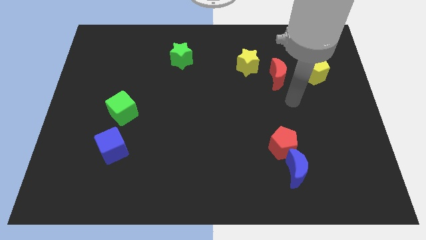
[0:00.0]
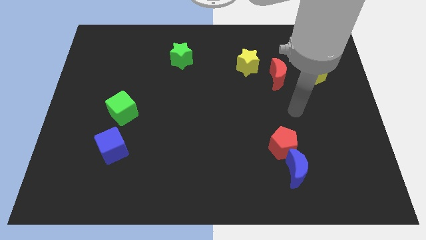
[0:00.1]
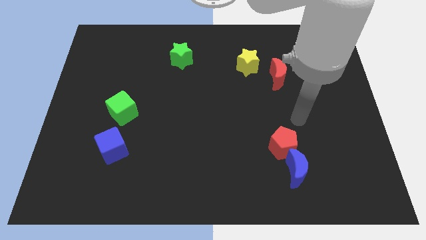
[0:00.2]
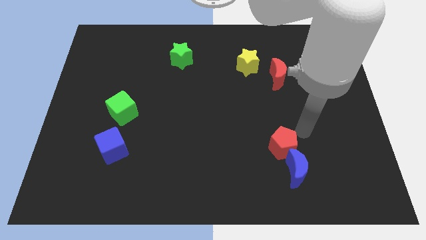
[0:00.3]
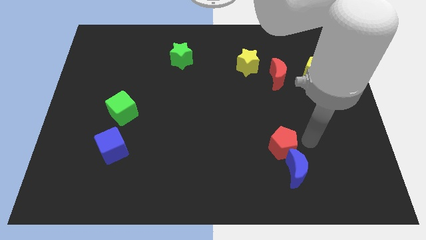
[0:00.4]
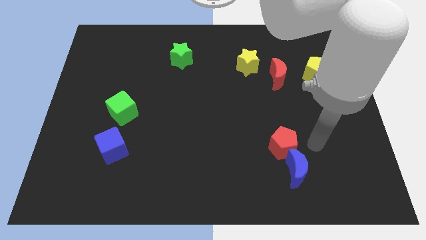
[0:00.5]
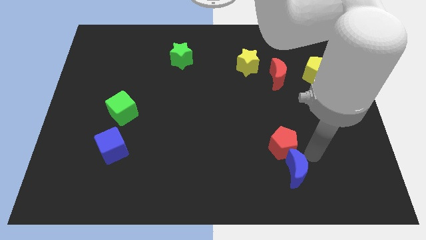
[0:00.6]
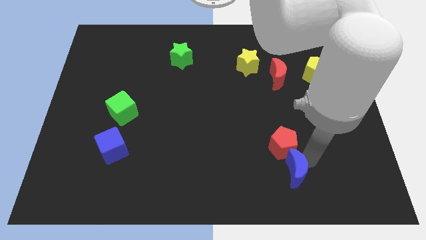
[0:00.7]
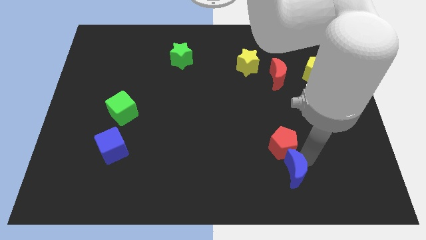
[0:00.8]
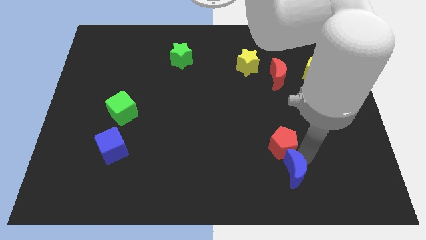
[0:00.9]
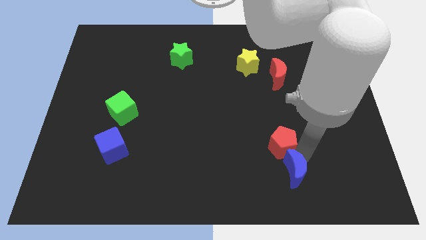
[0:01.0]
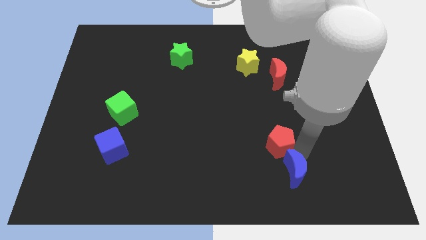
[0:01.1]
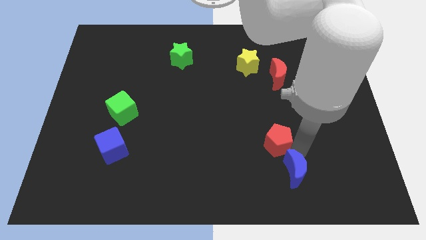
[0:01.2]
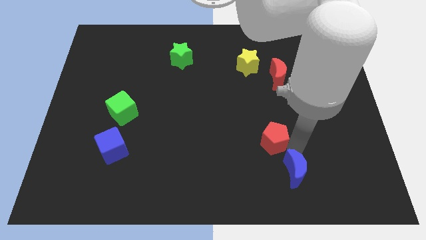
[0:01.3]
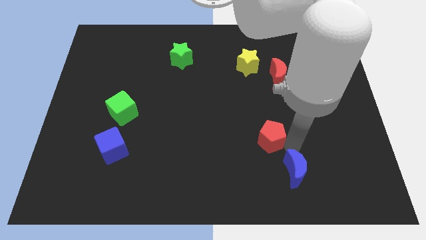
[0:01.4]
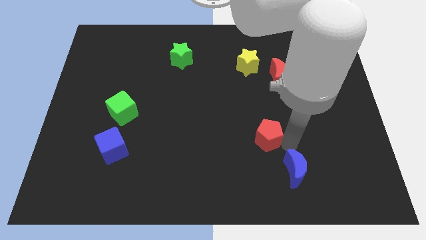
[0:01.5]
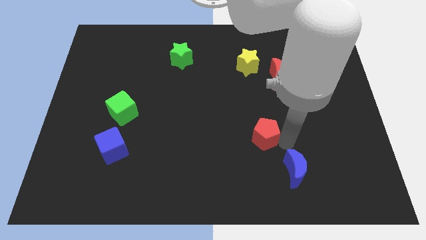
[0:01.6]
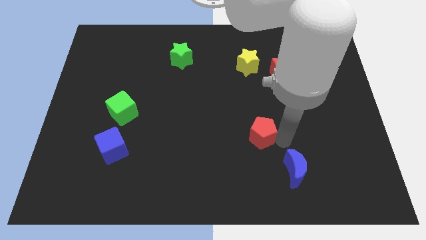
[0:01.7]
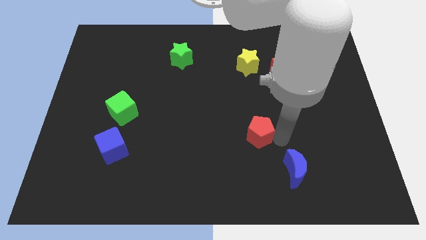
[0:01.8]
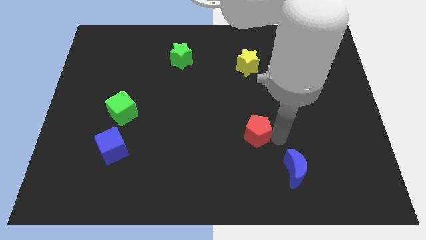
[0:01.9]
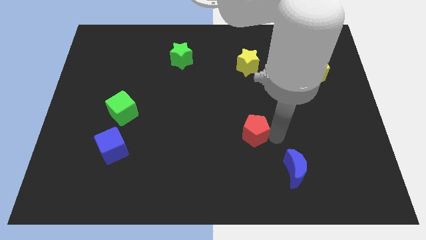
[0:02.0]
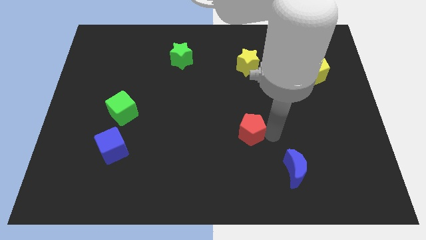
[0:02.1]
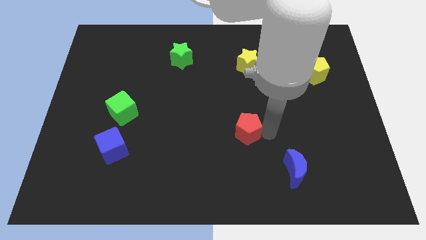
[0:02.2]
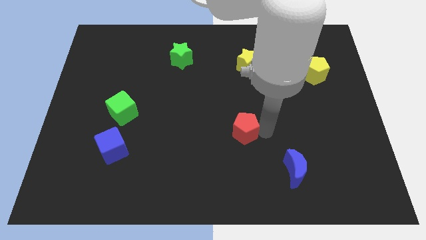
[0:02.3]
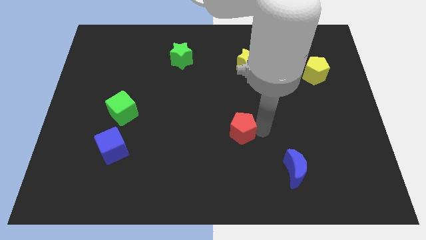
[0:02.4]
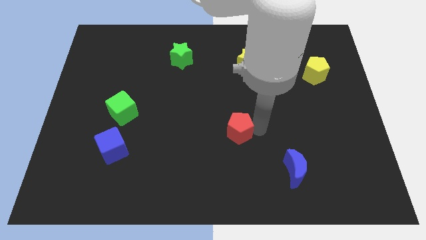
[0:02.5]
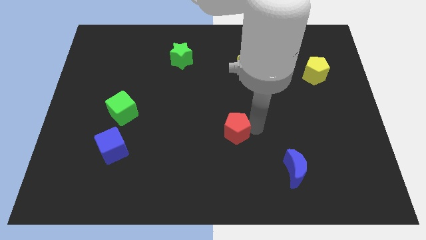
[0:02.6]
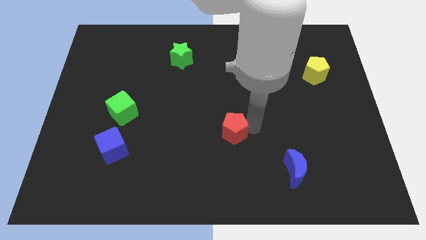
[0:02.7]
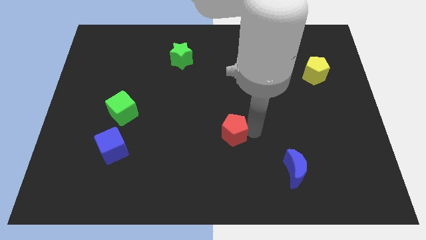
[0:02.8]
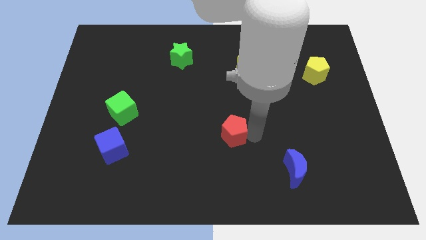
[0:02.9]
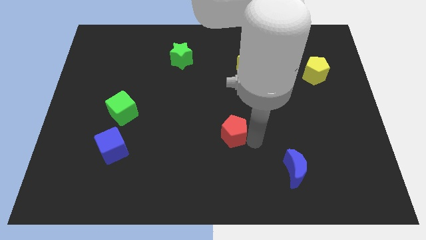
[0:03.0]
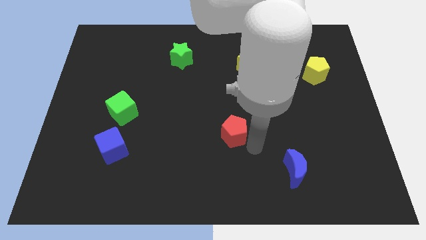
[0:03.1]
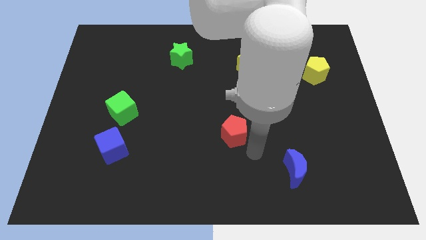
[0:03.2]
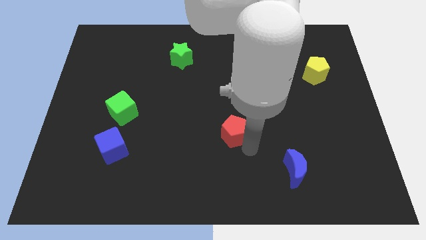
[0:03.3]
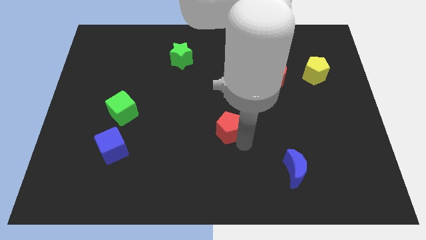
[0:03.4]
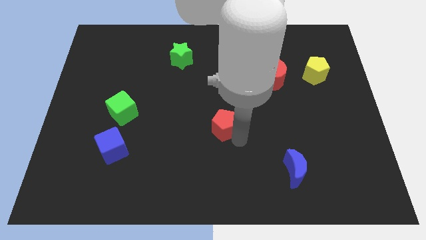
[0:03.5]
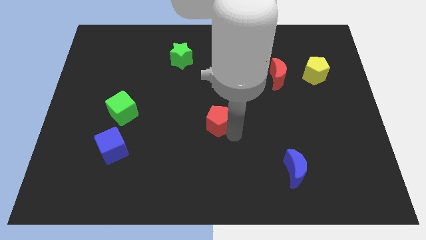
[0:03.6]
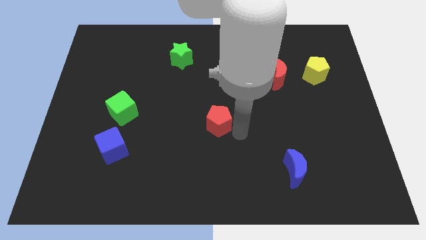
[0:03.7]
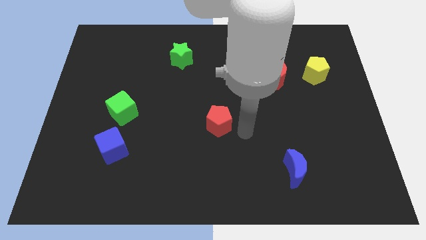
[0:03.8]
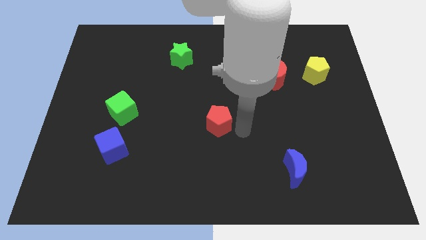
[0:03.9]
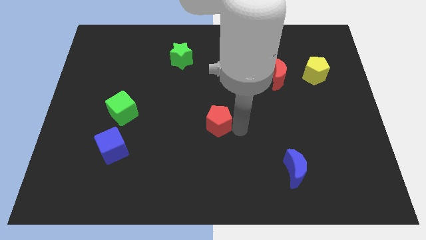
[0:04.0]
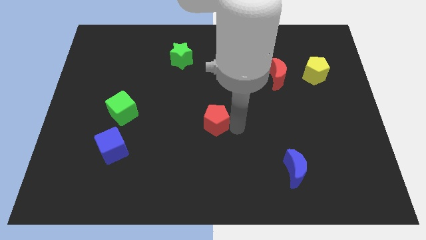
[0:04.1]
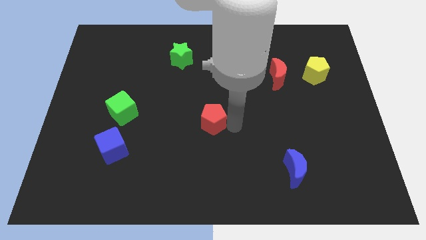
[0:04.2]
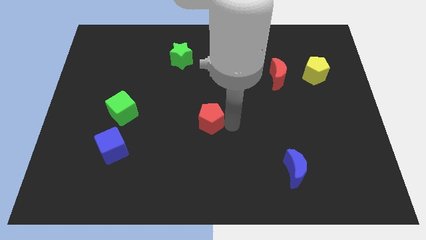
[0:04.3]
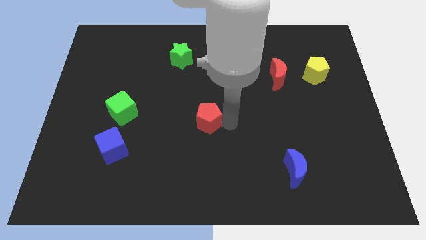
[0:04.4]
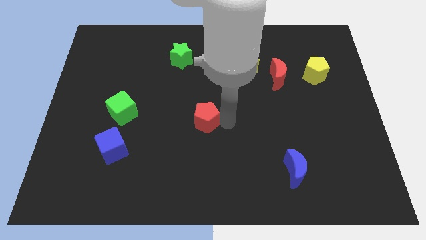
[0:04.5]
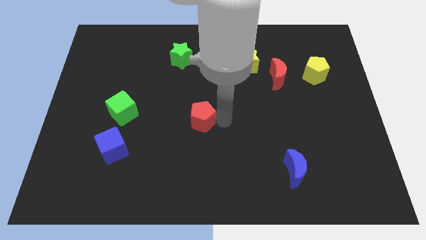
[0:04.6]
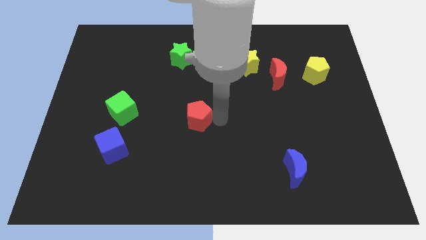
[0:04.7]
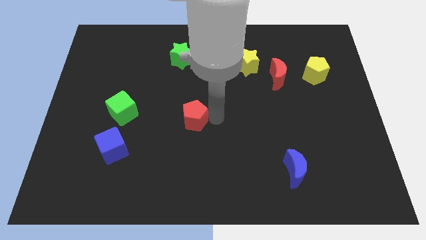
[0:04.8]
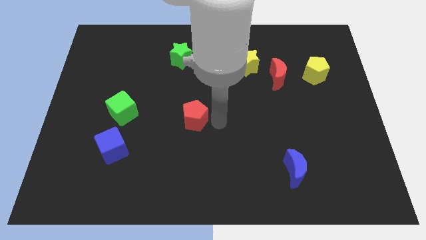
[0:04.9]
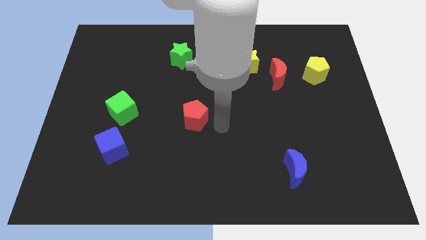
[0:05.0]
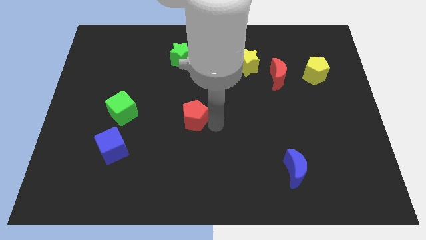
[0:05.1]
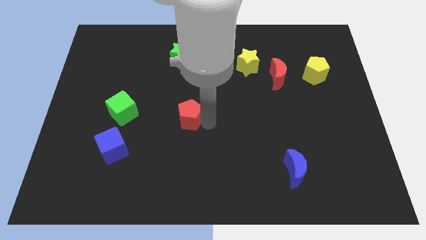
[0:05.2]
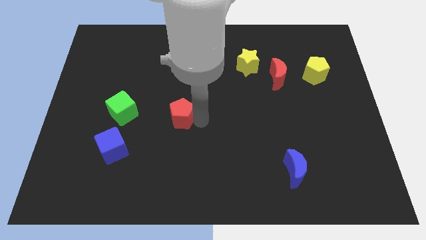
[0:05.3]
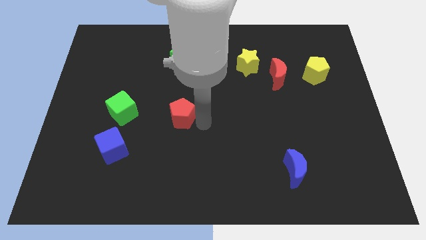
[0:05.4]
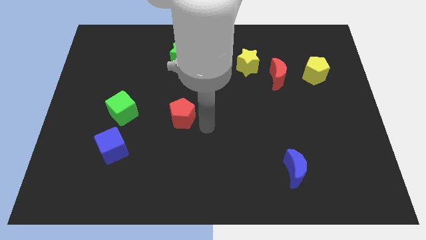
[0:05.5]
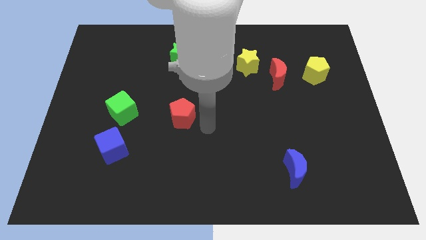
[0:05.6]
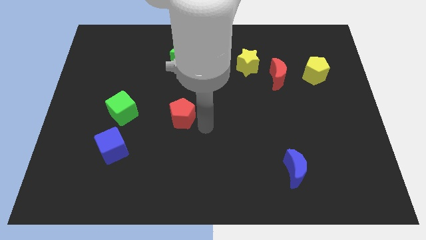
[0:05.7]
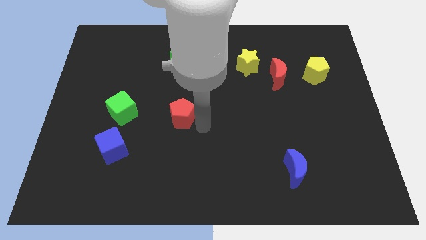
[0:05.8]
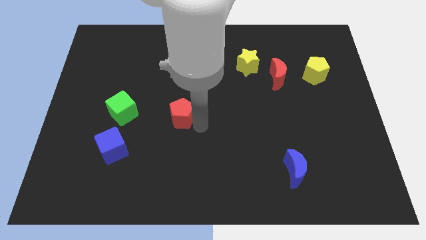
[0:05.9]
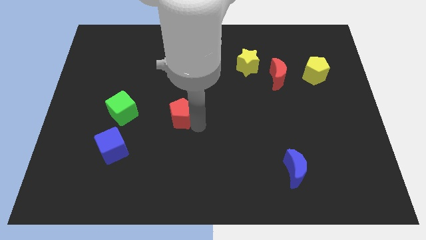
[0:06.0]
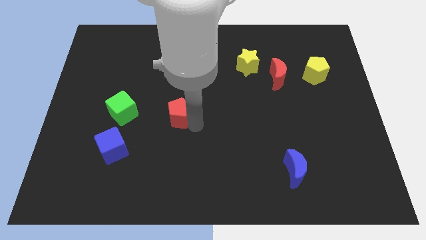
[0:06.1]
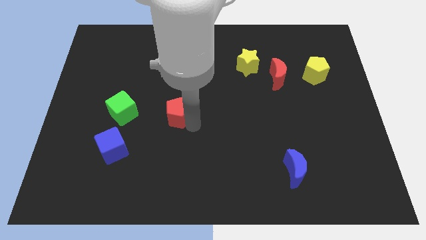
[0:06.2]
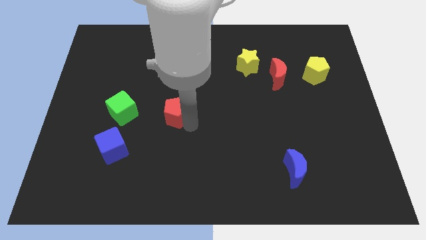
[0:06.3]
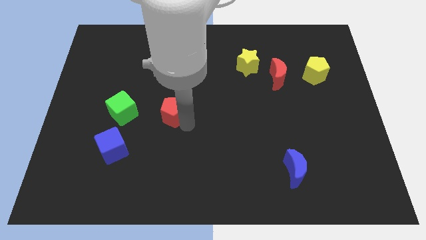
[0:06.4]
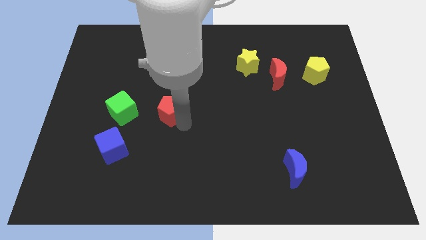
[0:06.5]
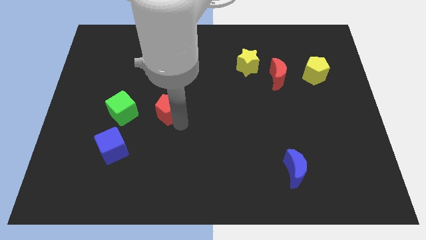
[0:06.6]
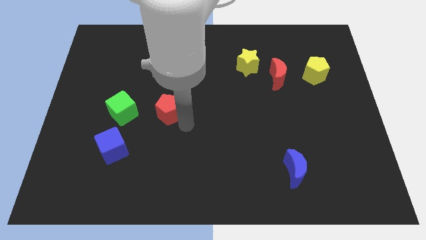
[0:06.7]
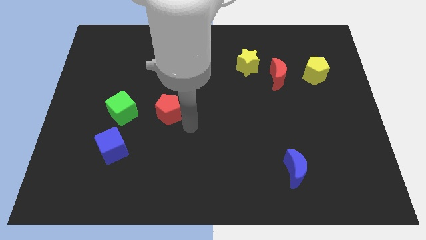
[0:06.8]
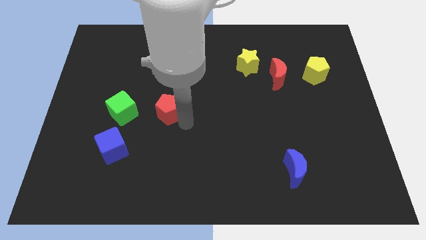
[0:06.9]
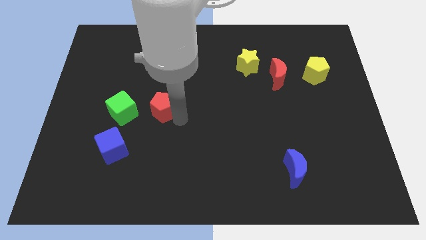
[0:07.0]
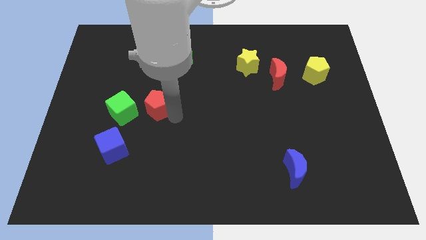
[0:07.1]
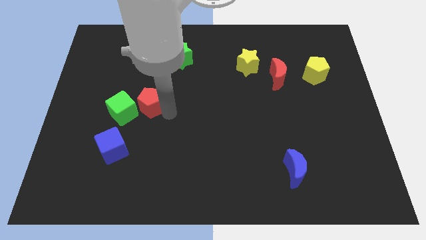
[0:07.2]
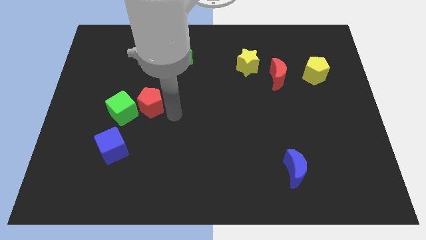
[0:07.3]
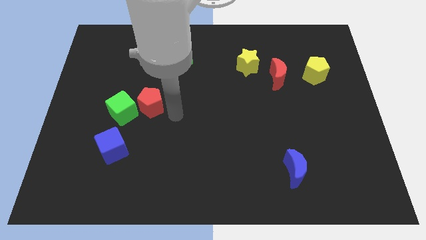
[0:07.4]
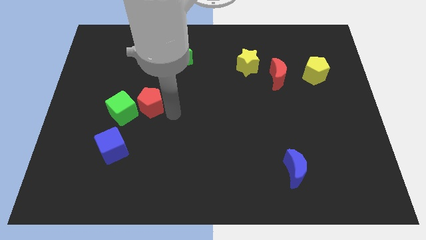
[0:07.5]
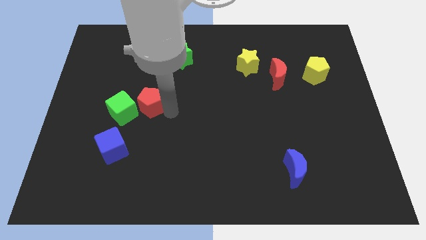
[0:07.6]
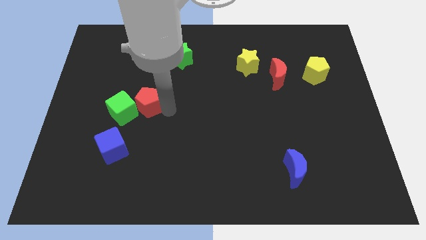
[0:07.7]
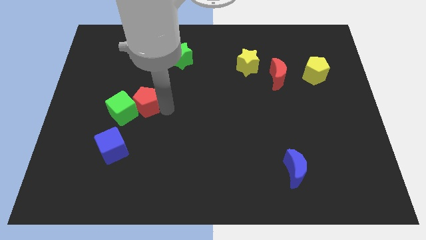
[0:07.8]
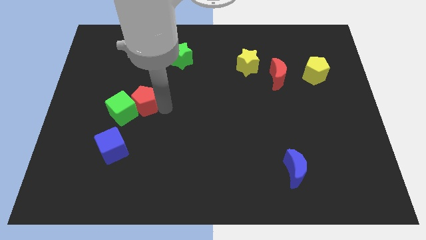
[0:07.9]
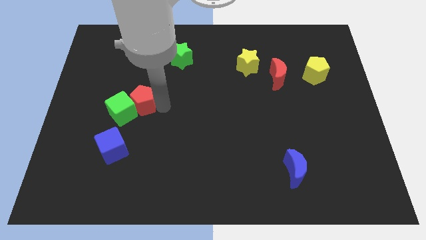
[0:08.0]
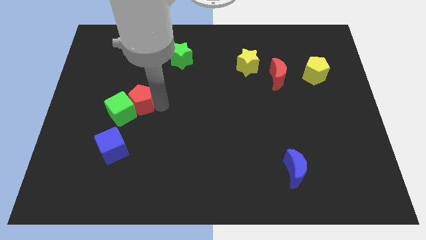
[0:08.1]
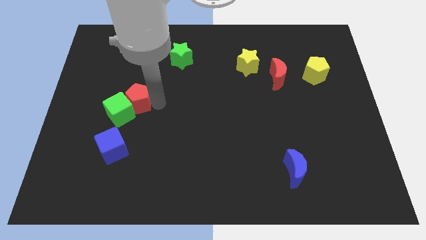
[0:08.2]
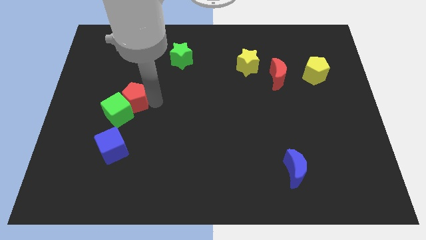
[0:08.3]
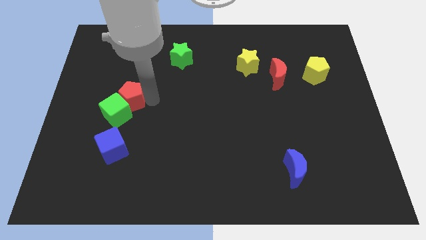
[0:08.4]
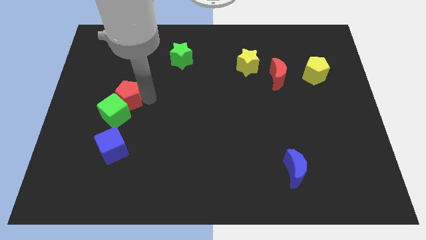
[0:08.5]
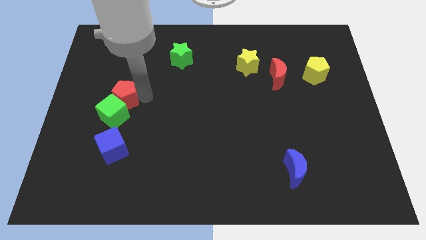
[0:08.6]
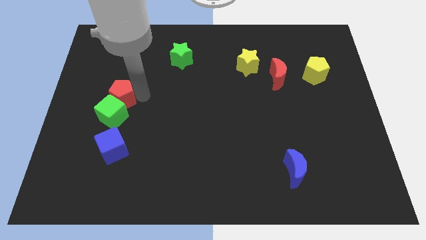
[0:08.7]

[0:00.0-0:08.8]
push the red pentagon to the top left side of the green cube
